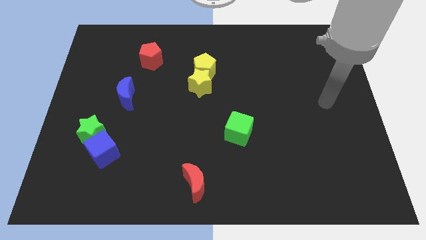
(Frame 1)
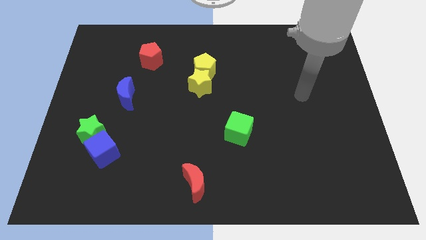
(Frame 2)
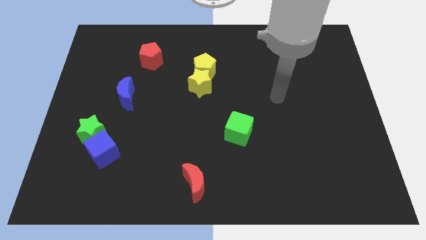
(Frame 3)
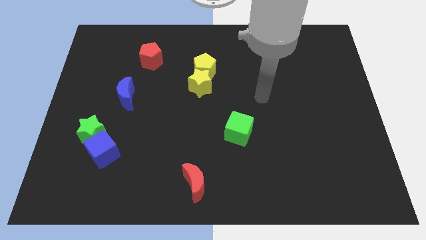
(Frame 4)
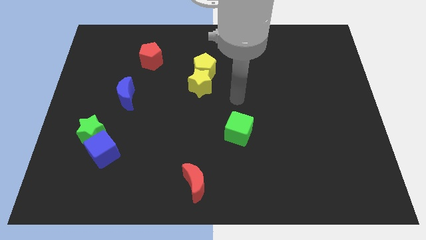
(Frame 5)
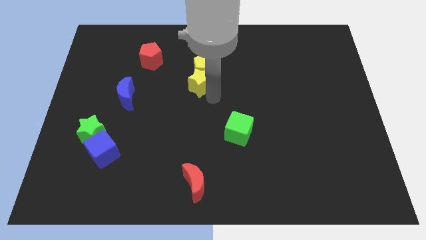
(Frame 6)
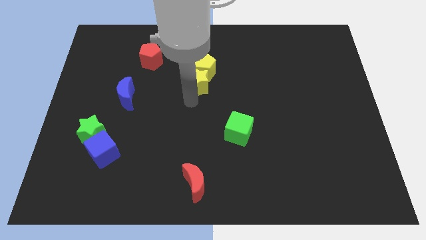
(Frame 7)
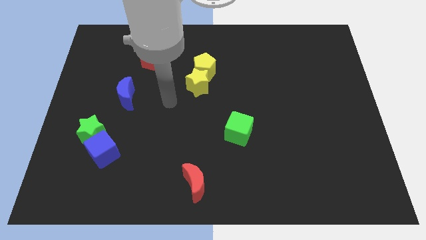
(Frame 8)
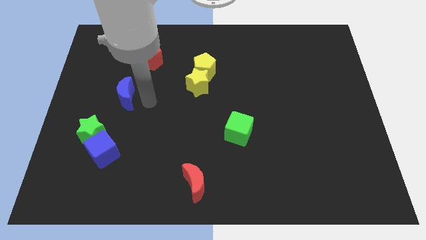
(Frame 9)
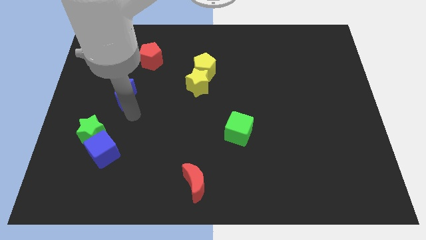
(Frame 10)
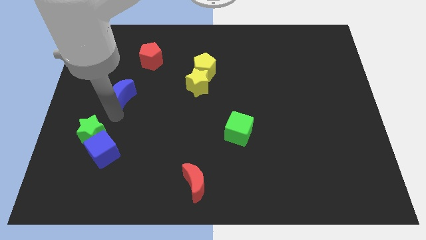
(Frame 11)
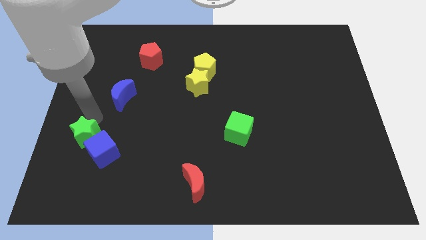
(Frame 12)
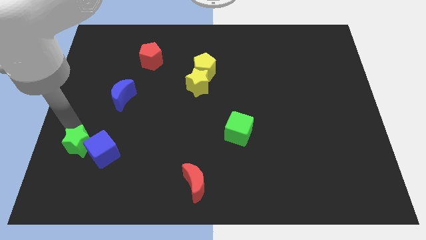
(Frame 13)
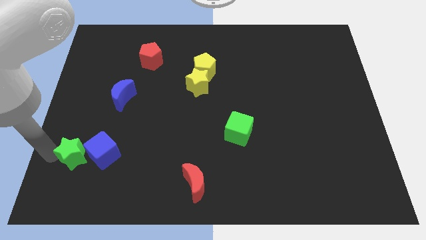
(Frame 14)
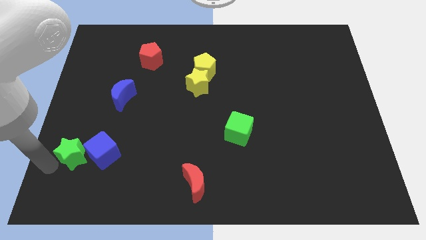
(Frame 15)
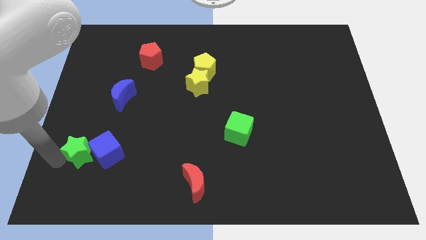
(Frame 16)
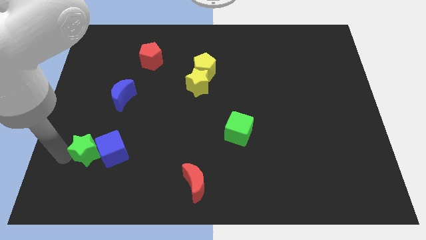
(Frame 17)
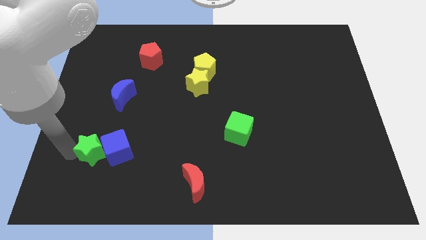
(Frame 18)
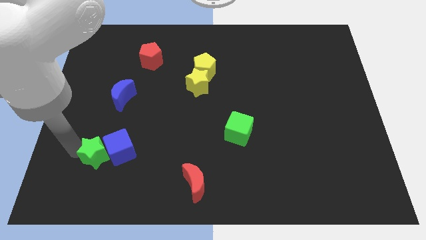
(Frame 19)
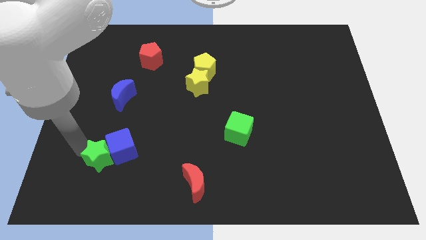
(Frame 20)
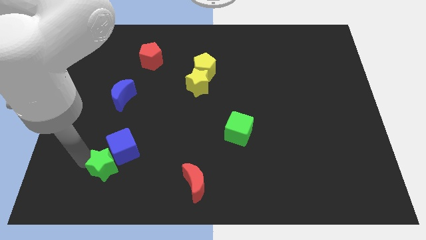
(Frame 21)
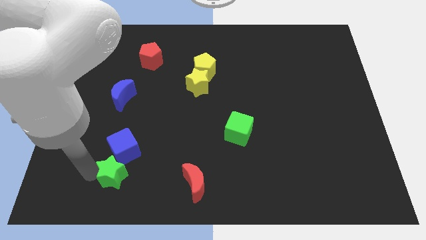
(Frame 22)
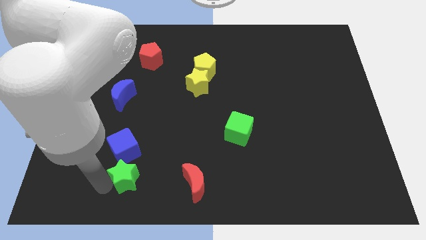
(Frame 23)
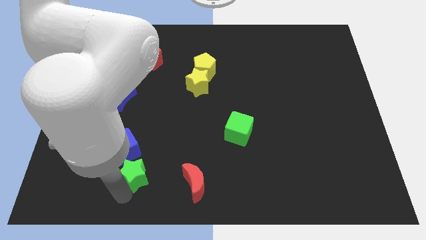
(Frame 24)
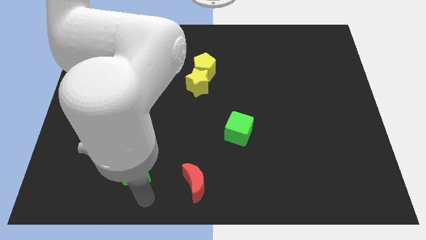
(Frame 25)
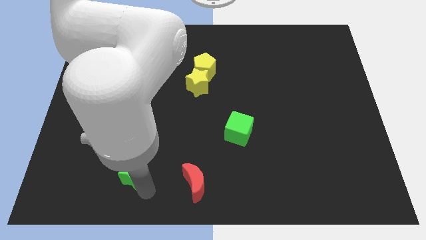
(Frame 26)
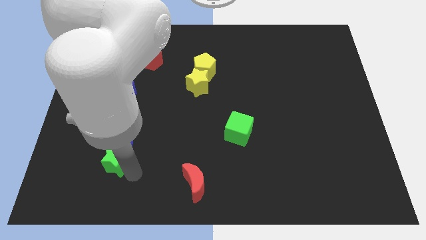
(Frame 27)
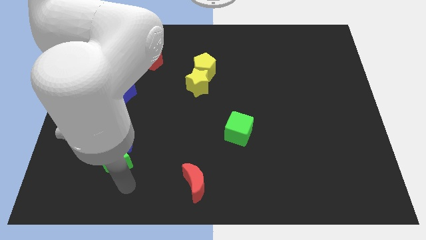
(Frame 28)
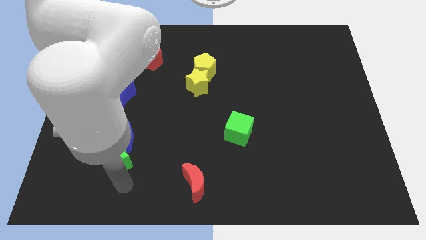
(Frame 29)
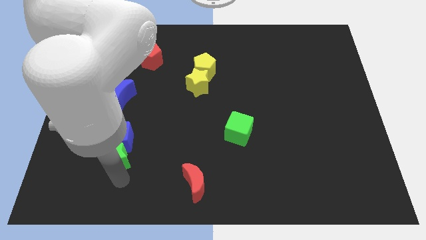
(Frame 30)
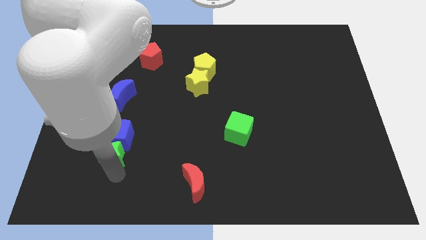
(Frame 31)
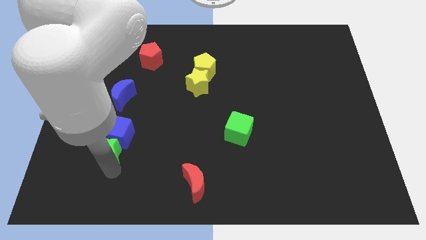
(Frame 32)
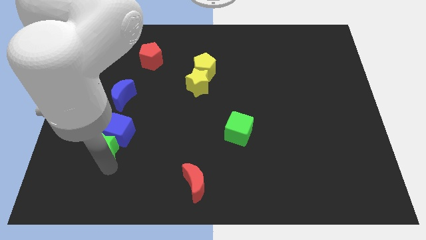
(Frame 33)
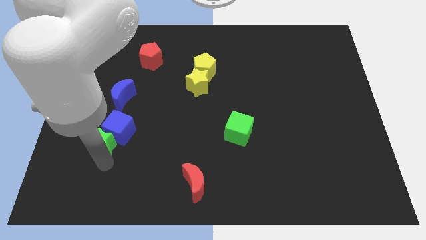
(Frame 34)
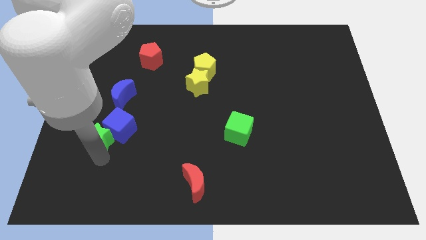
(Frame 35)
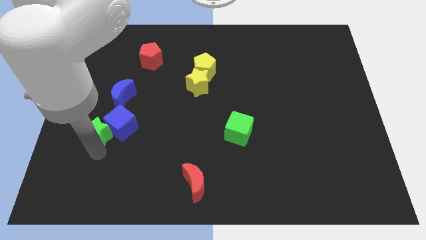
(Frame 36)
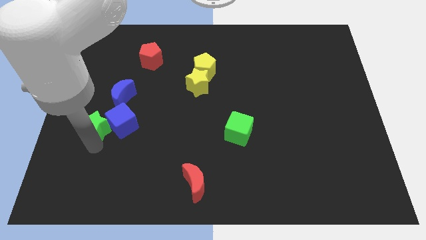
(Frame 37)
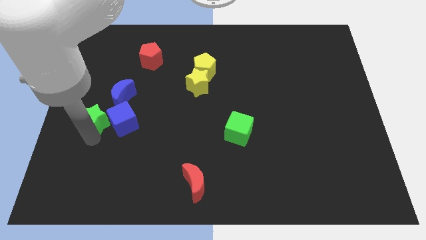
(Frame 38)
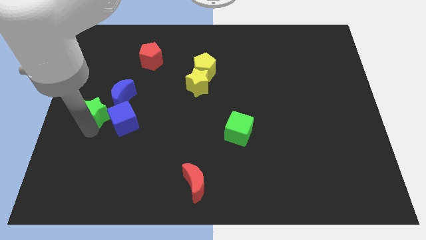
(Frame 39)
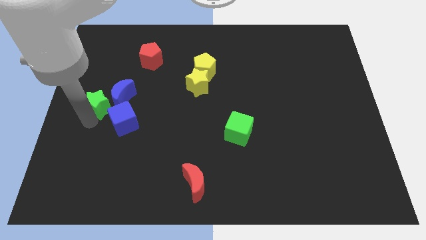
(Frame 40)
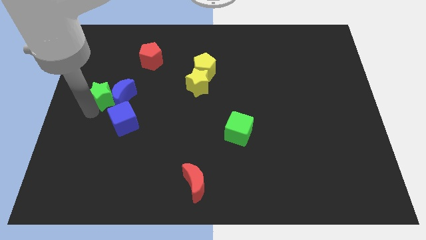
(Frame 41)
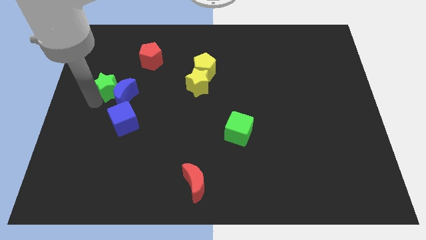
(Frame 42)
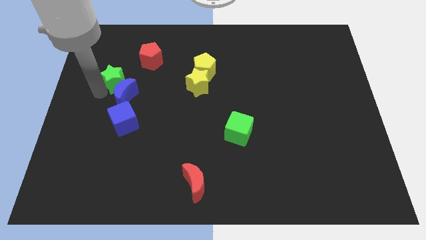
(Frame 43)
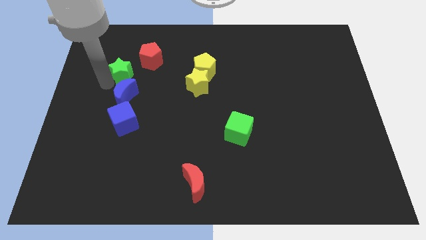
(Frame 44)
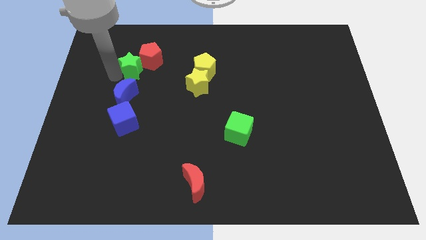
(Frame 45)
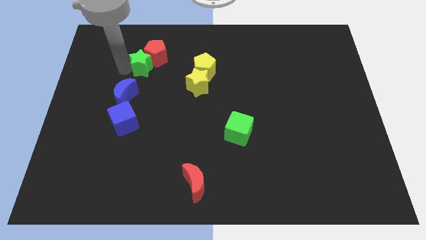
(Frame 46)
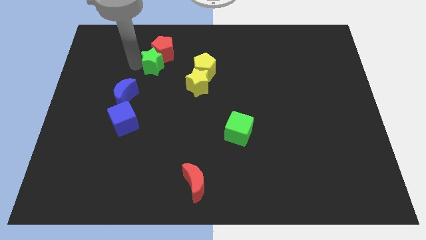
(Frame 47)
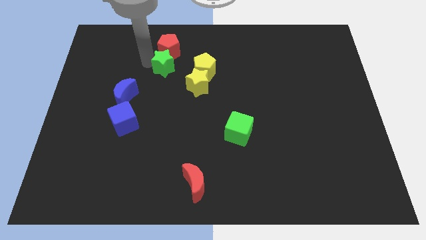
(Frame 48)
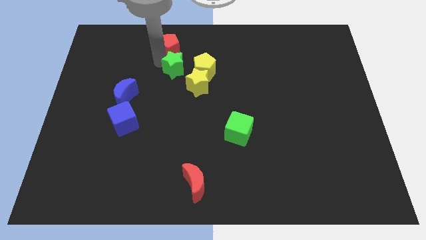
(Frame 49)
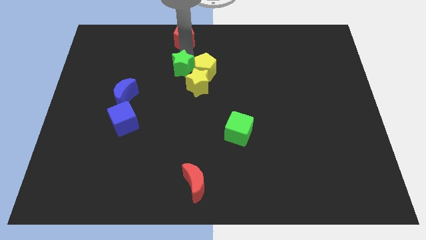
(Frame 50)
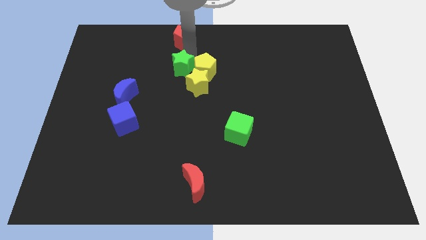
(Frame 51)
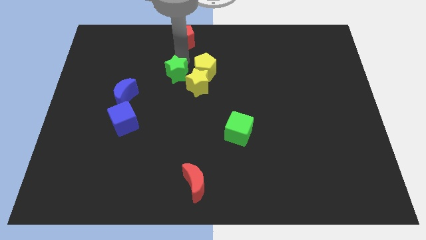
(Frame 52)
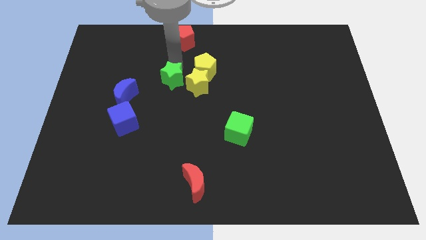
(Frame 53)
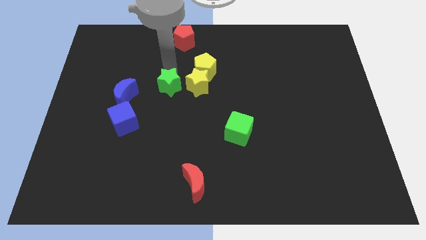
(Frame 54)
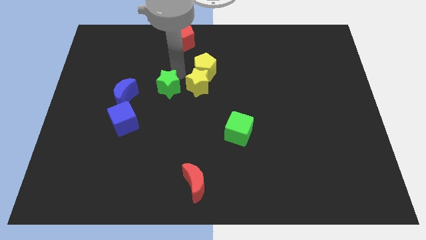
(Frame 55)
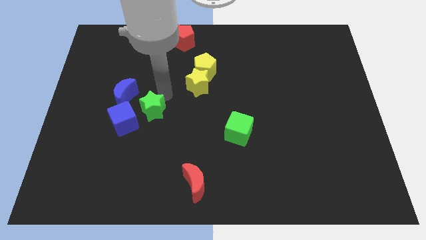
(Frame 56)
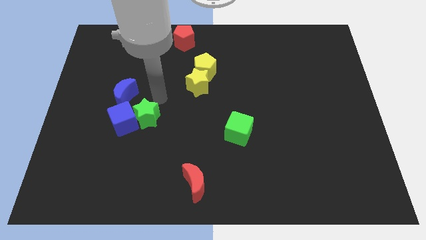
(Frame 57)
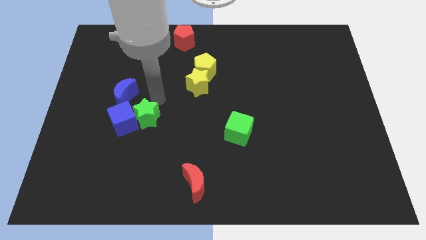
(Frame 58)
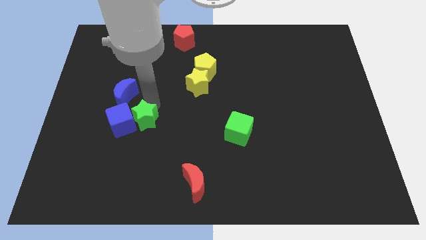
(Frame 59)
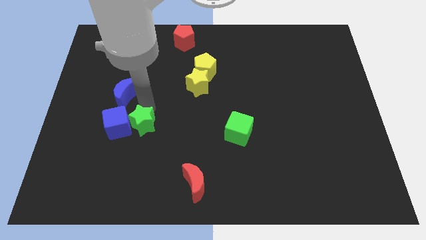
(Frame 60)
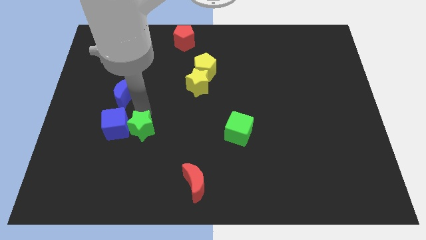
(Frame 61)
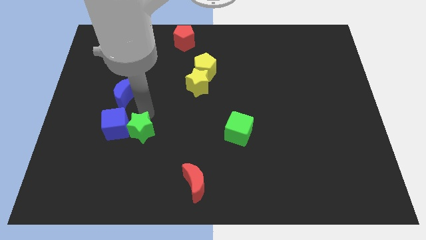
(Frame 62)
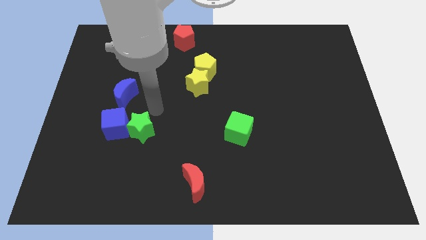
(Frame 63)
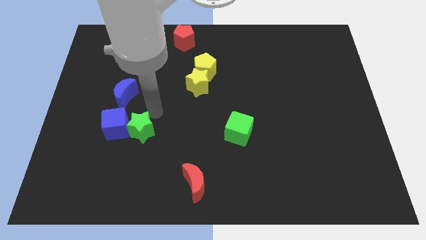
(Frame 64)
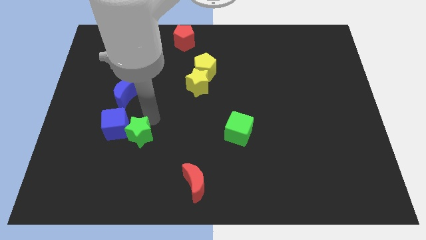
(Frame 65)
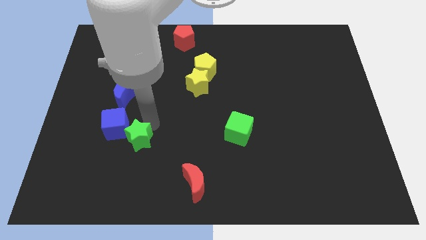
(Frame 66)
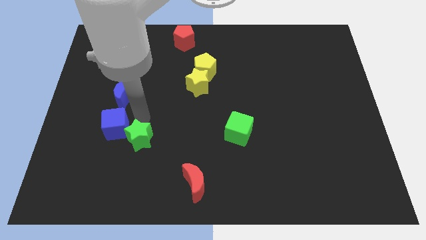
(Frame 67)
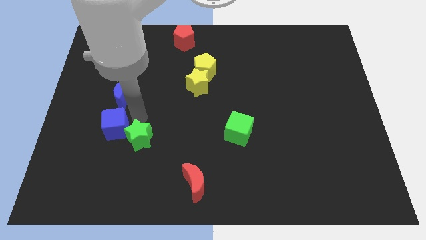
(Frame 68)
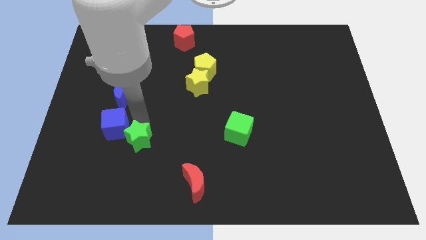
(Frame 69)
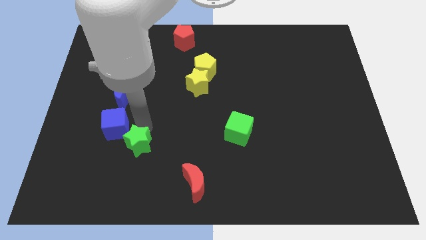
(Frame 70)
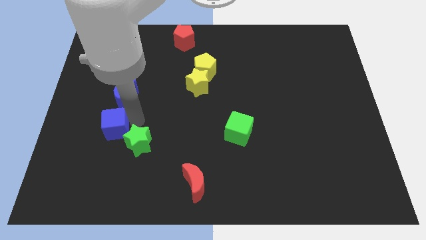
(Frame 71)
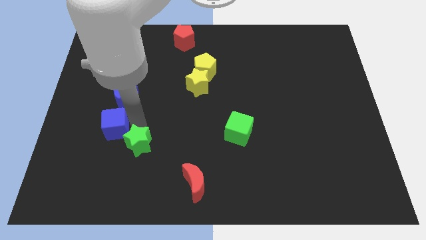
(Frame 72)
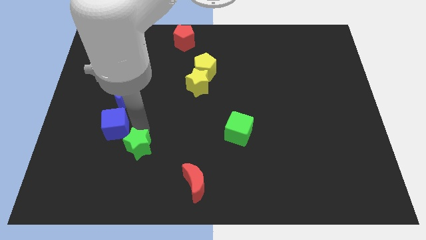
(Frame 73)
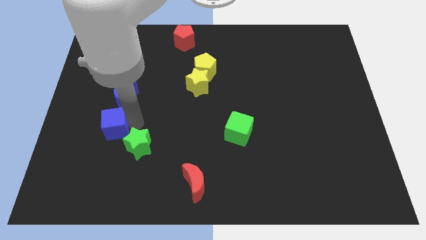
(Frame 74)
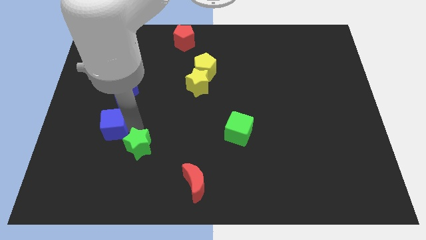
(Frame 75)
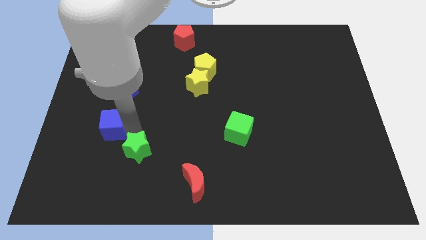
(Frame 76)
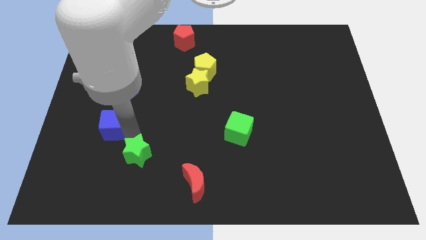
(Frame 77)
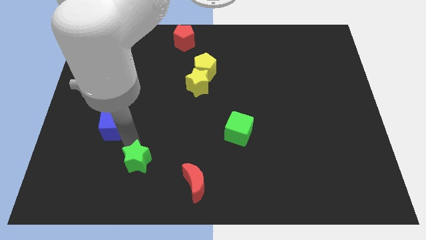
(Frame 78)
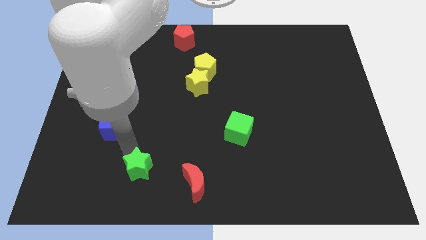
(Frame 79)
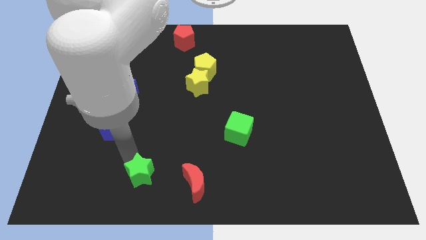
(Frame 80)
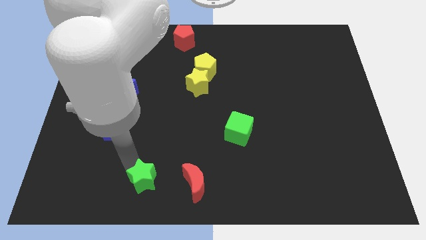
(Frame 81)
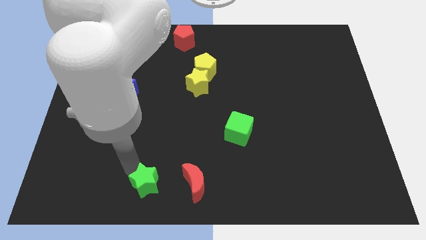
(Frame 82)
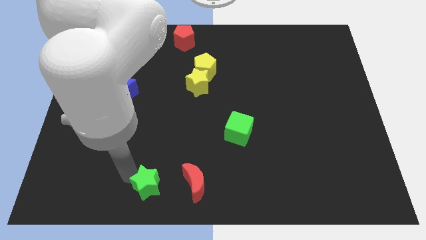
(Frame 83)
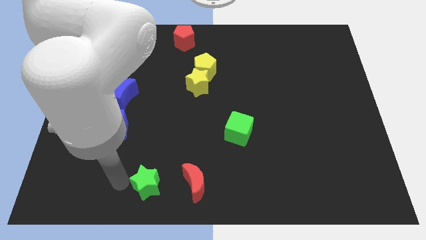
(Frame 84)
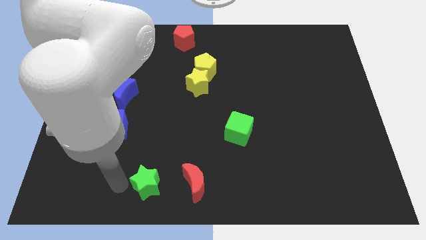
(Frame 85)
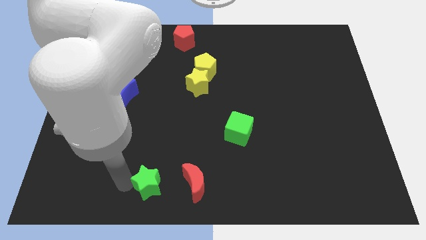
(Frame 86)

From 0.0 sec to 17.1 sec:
put the green star to the bottom side
